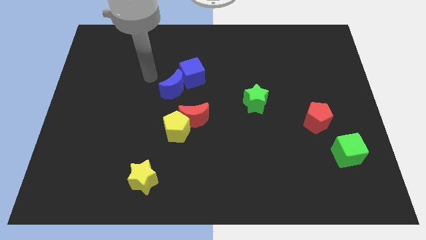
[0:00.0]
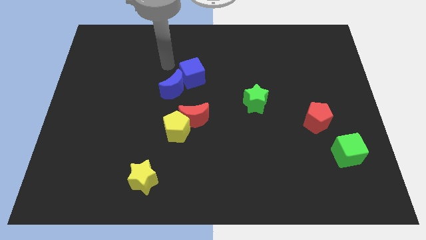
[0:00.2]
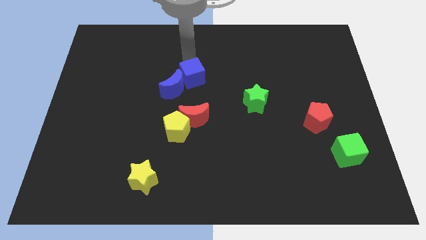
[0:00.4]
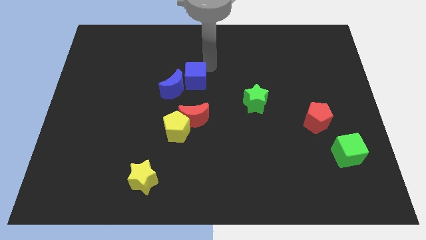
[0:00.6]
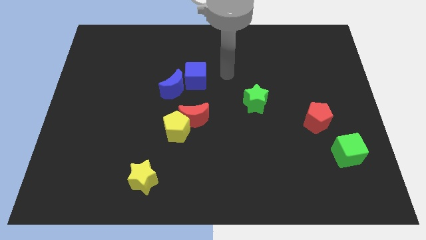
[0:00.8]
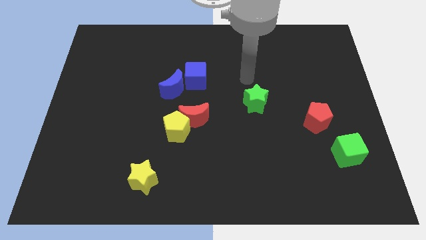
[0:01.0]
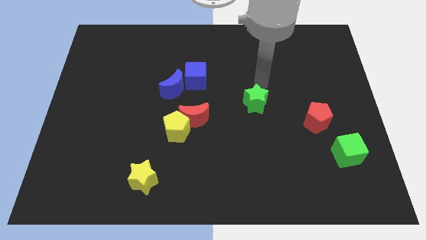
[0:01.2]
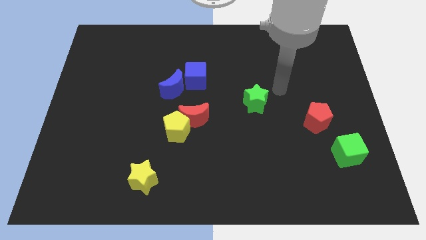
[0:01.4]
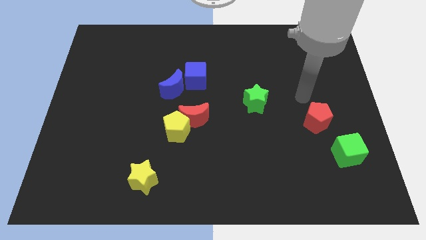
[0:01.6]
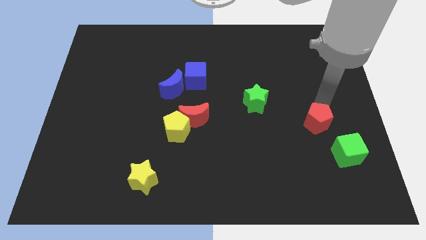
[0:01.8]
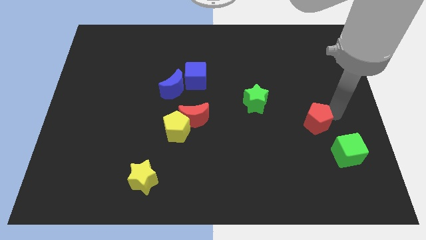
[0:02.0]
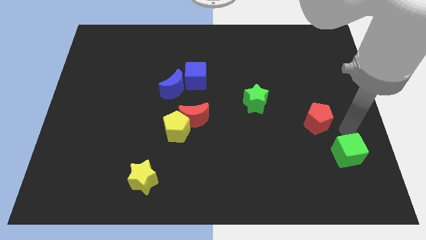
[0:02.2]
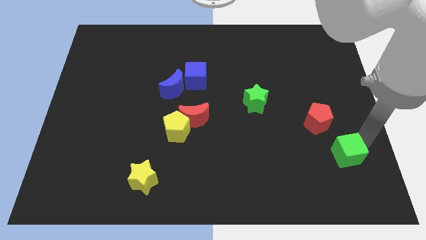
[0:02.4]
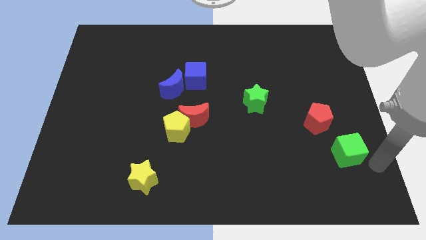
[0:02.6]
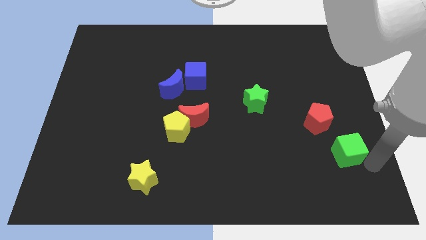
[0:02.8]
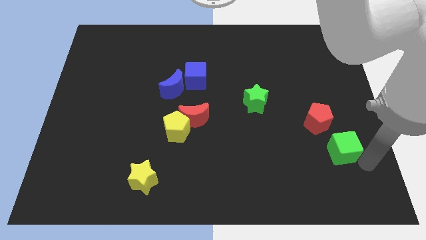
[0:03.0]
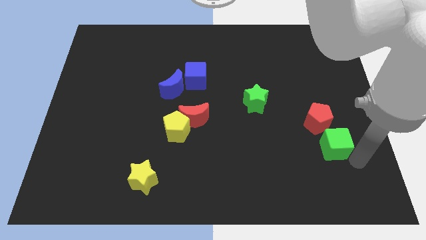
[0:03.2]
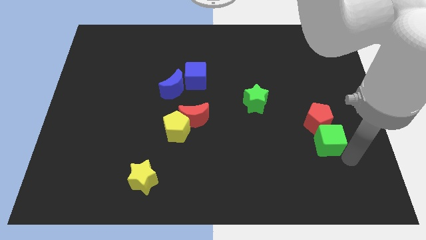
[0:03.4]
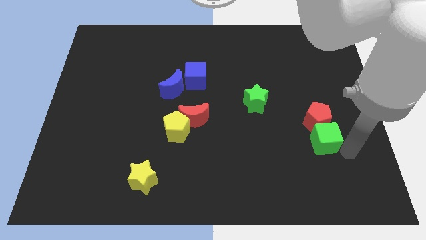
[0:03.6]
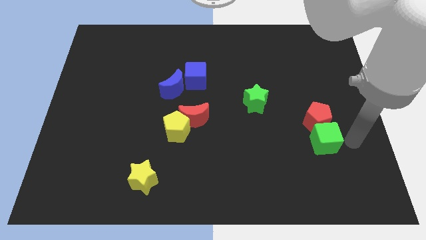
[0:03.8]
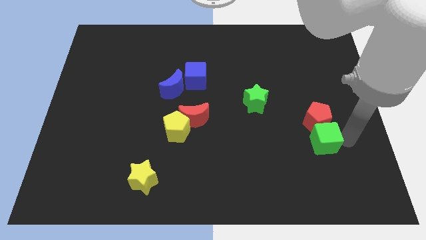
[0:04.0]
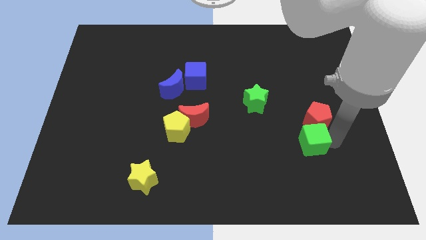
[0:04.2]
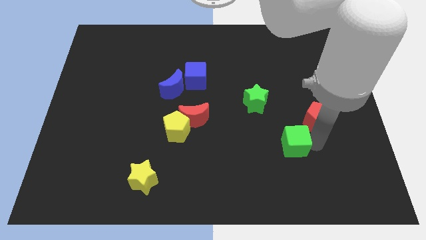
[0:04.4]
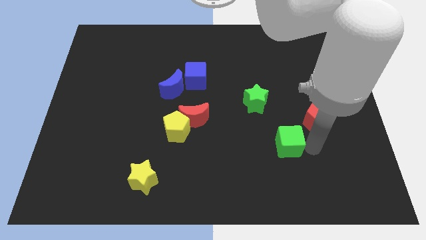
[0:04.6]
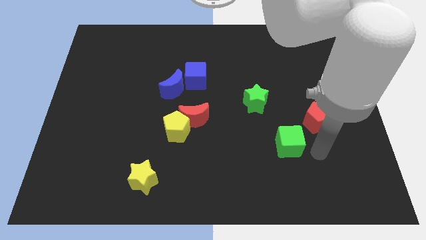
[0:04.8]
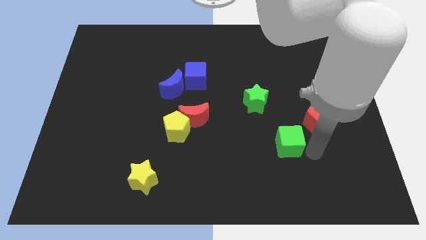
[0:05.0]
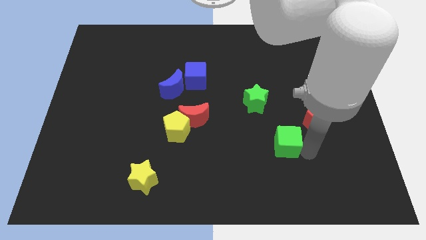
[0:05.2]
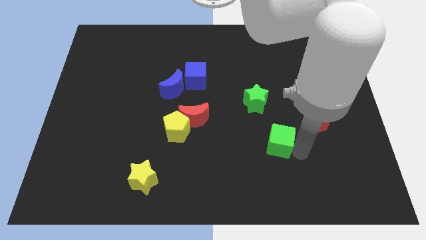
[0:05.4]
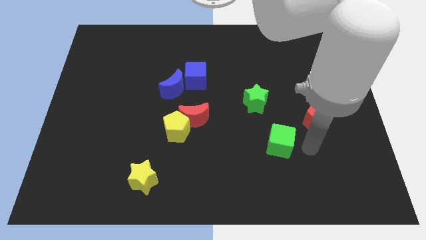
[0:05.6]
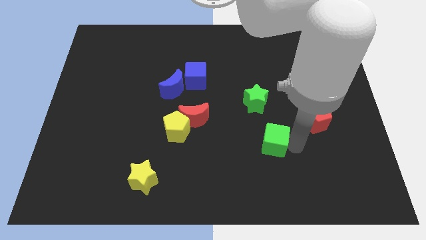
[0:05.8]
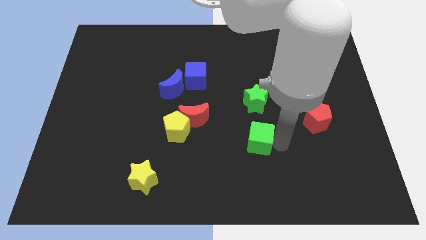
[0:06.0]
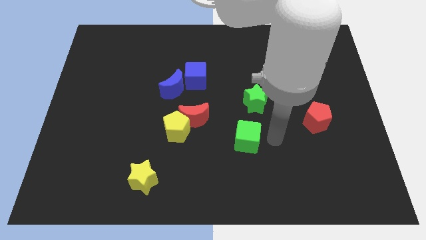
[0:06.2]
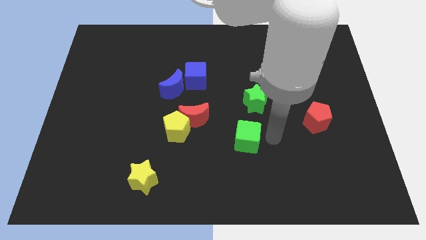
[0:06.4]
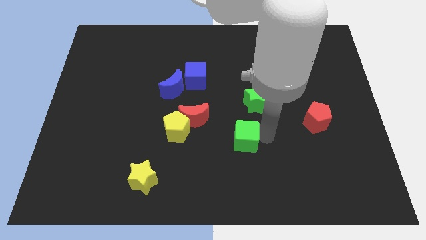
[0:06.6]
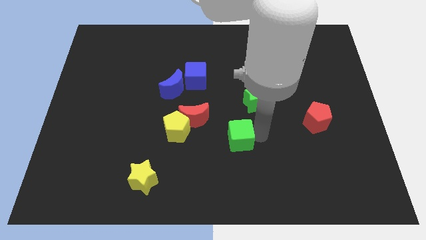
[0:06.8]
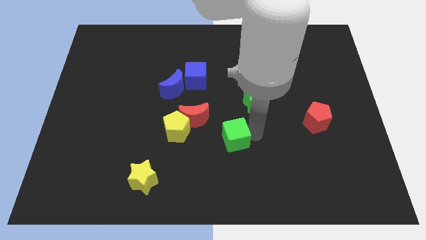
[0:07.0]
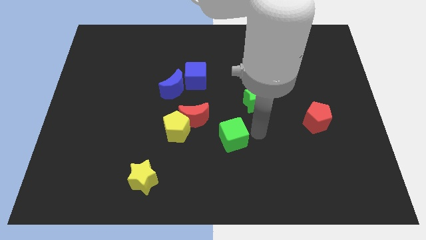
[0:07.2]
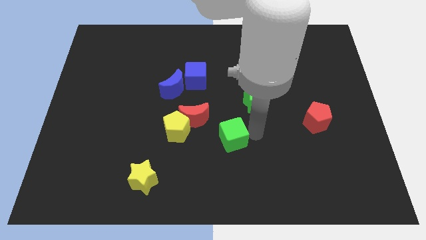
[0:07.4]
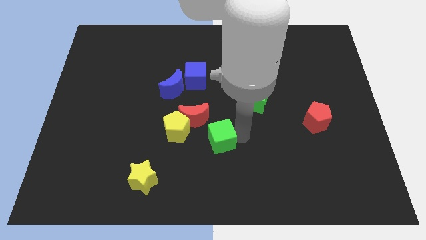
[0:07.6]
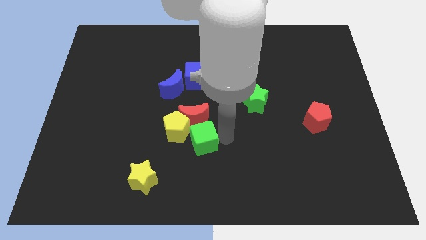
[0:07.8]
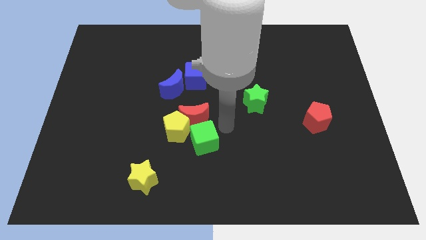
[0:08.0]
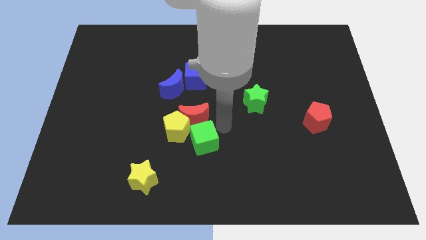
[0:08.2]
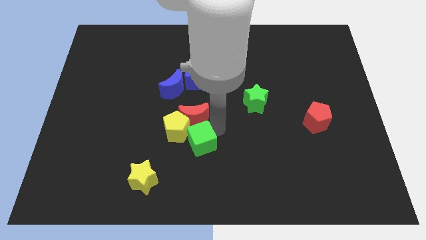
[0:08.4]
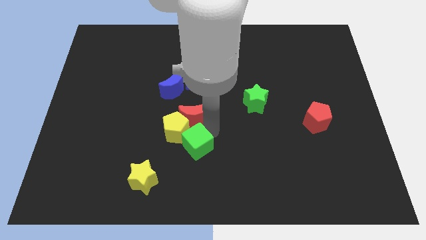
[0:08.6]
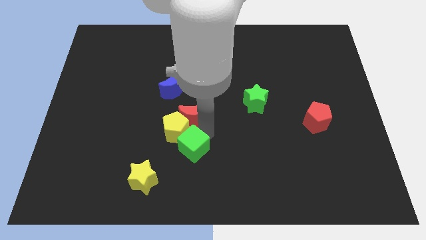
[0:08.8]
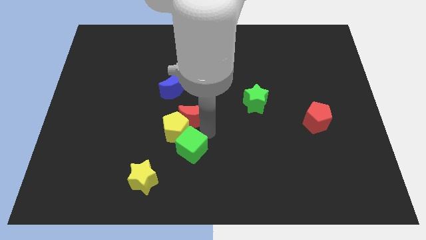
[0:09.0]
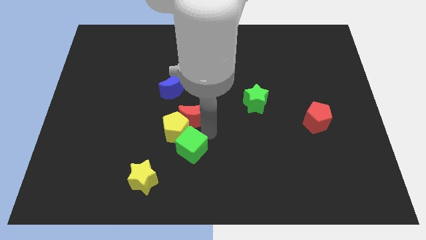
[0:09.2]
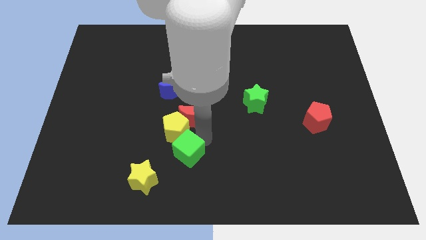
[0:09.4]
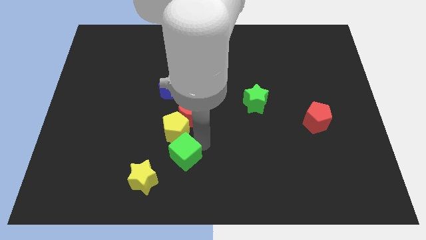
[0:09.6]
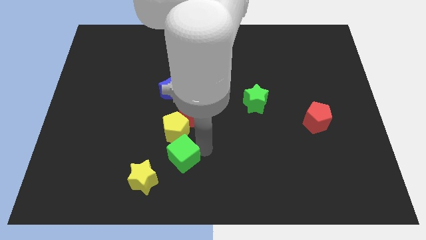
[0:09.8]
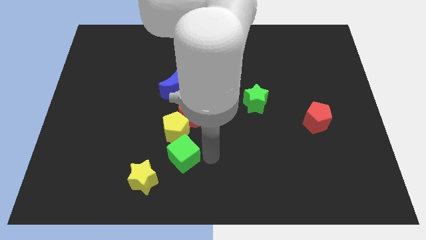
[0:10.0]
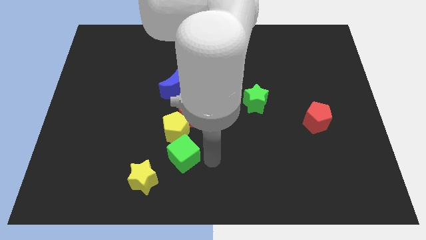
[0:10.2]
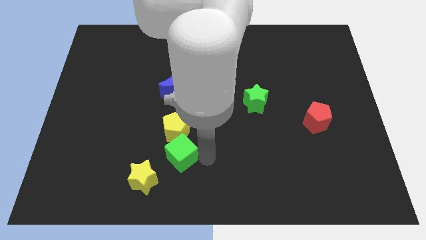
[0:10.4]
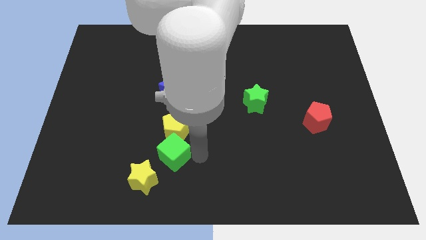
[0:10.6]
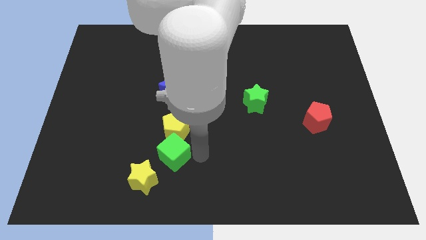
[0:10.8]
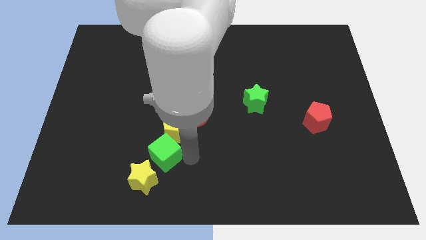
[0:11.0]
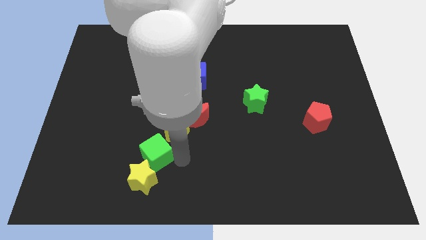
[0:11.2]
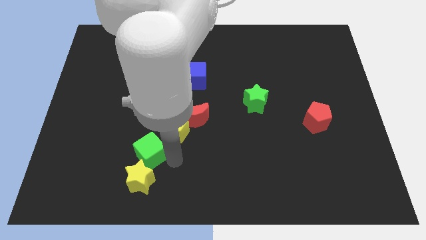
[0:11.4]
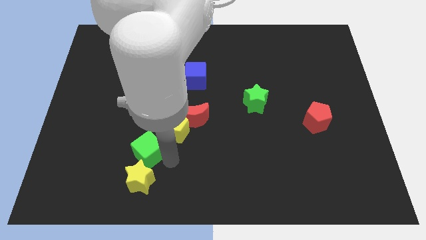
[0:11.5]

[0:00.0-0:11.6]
push the green cube to the top left side of the yellow star

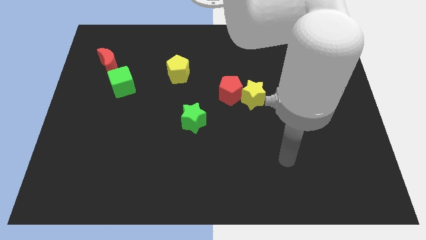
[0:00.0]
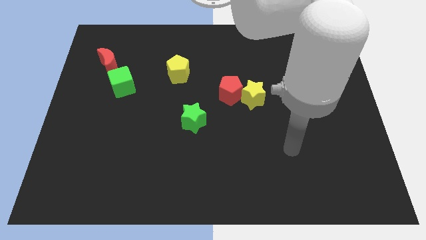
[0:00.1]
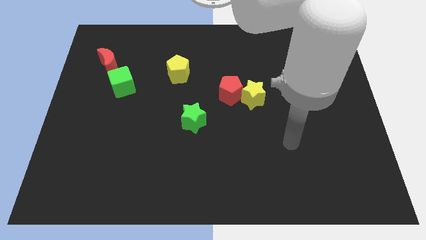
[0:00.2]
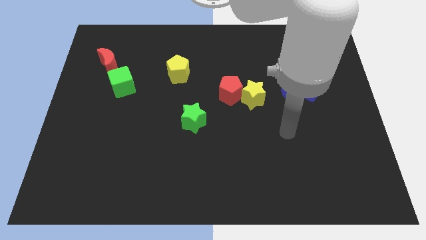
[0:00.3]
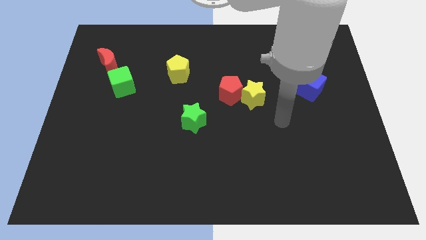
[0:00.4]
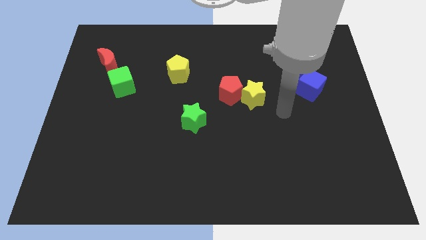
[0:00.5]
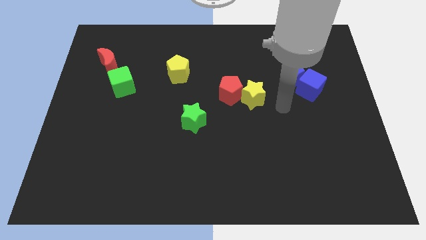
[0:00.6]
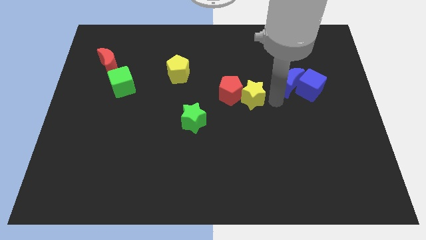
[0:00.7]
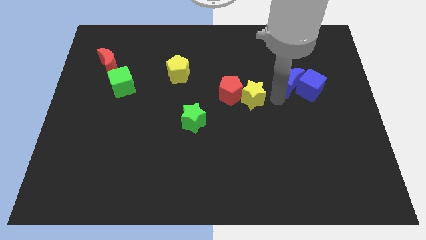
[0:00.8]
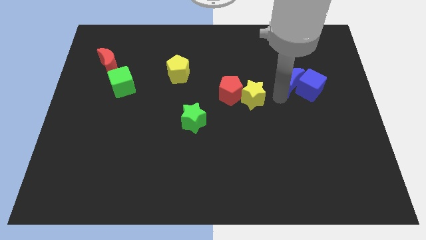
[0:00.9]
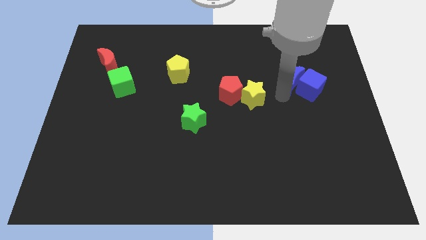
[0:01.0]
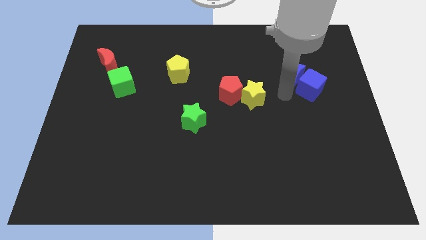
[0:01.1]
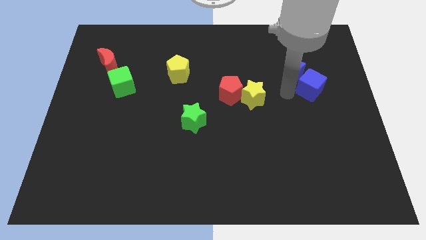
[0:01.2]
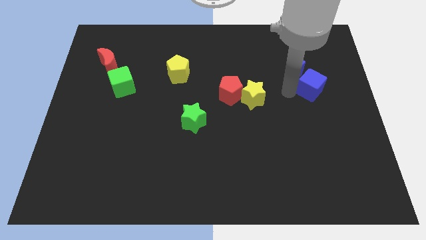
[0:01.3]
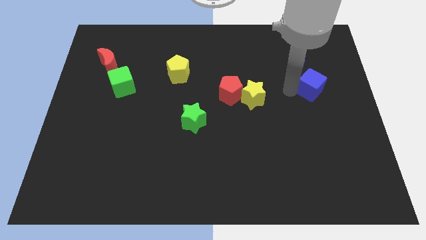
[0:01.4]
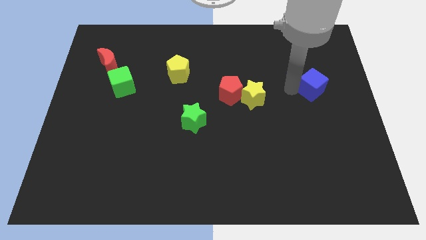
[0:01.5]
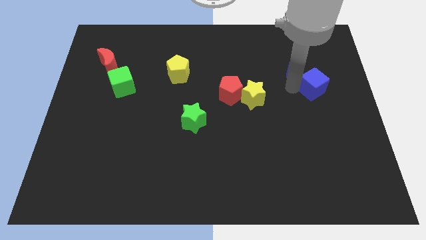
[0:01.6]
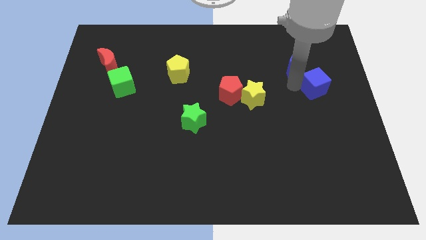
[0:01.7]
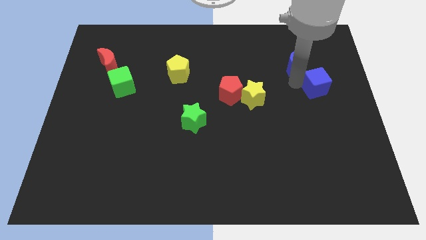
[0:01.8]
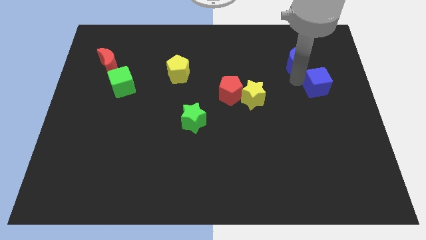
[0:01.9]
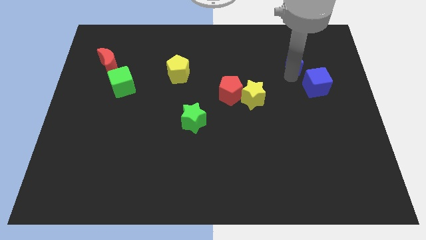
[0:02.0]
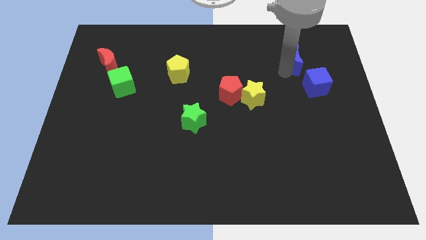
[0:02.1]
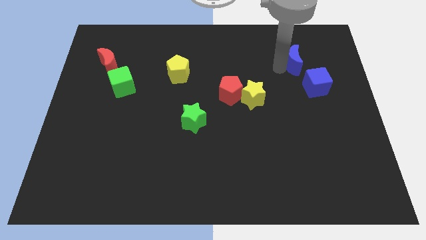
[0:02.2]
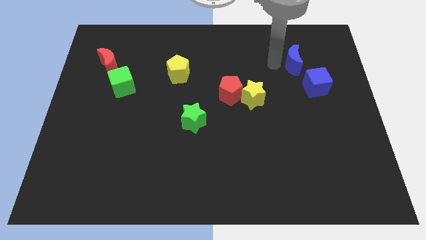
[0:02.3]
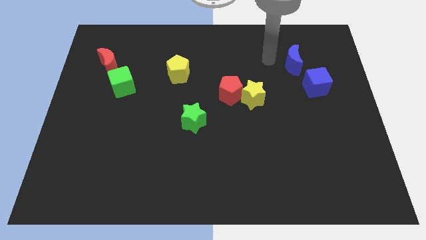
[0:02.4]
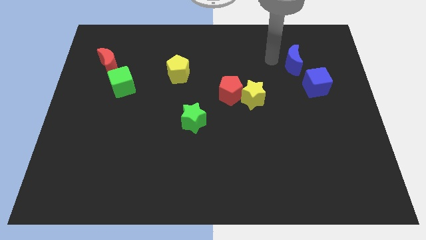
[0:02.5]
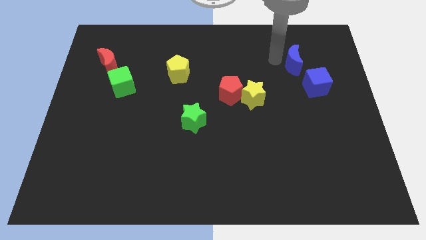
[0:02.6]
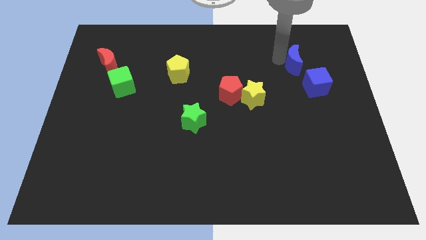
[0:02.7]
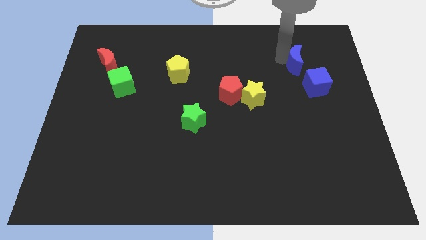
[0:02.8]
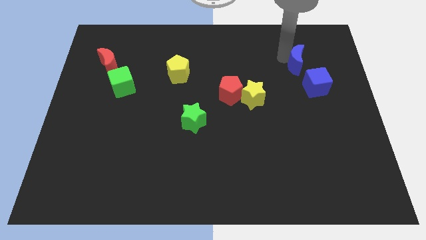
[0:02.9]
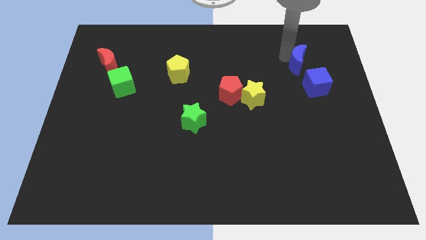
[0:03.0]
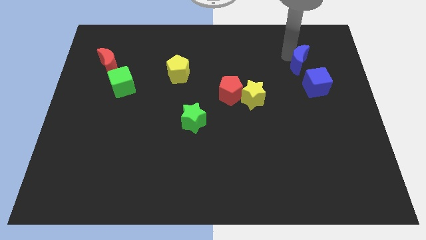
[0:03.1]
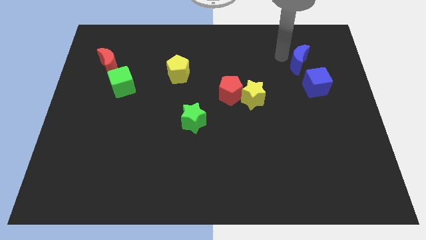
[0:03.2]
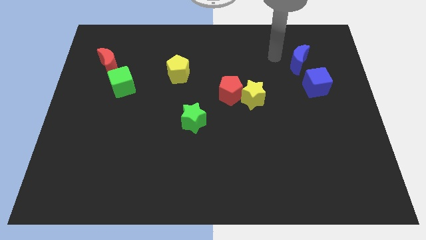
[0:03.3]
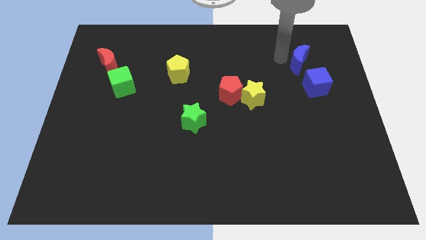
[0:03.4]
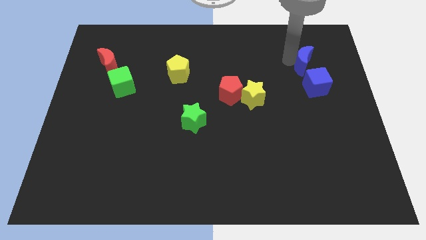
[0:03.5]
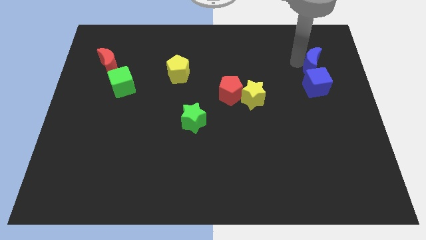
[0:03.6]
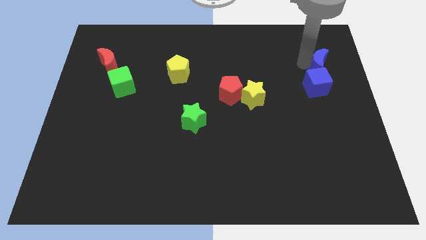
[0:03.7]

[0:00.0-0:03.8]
push the blue moon diagonally up and to the right of the blue cube
